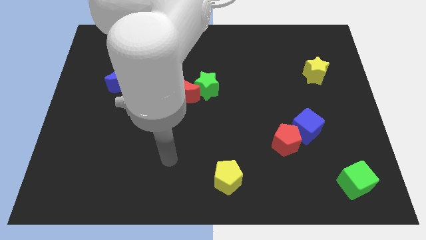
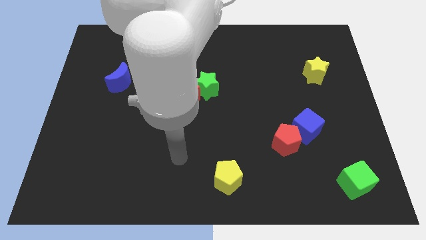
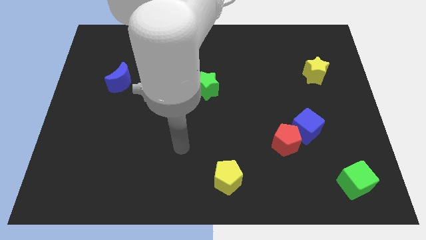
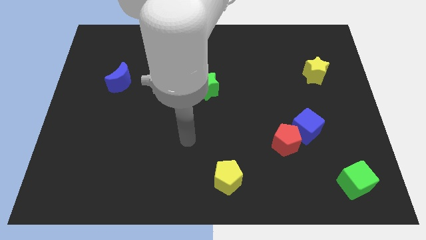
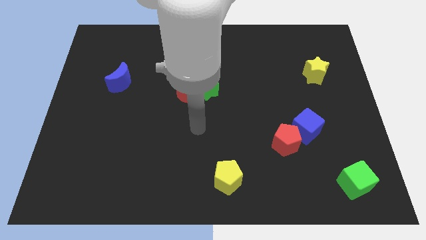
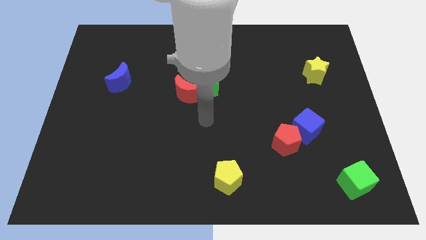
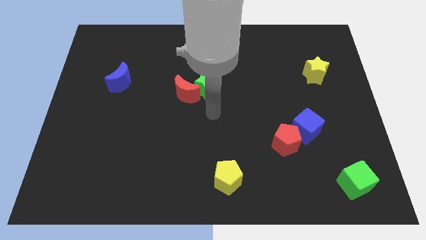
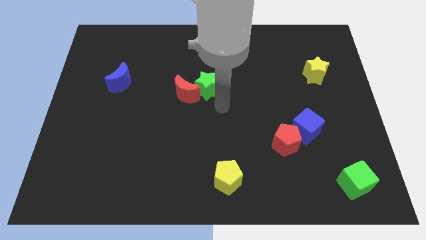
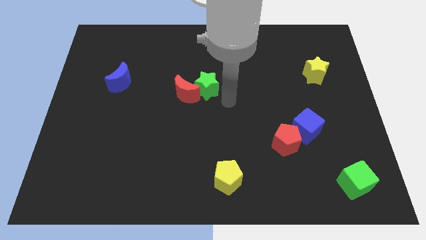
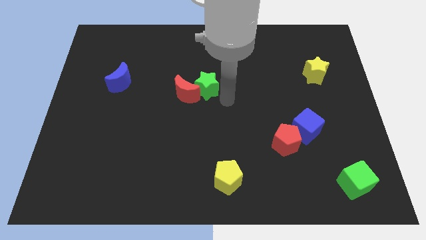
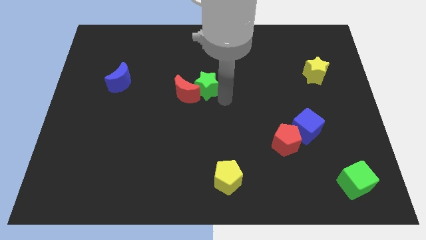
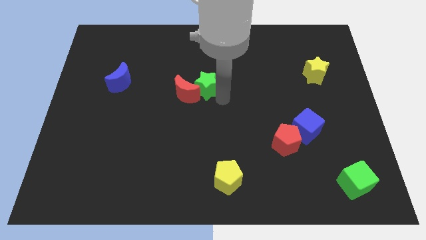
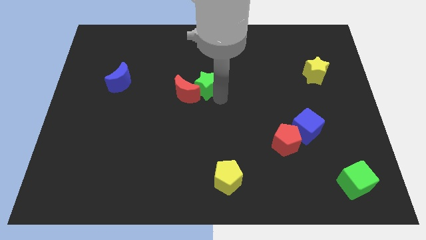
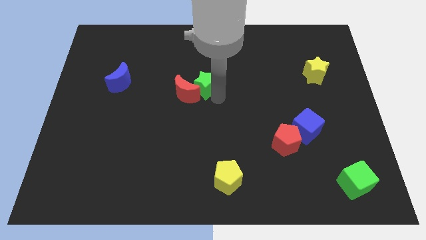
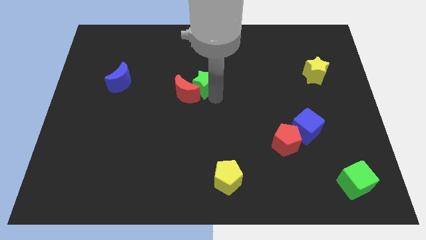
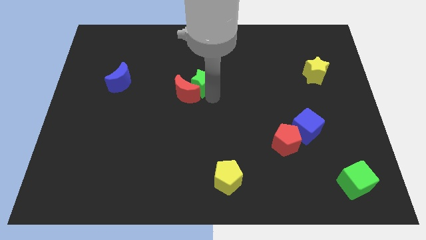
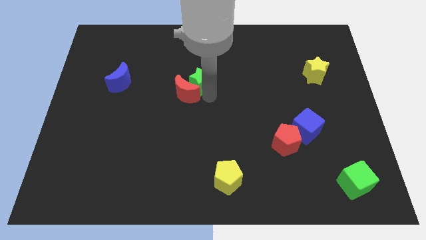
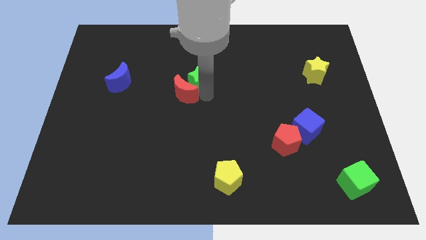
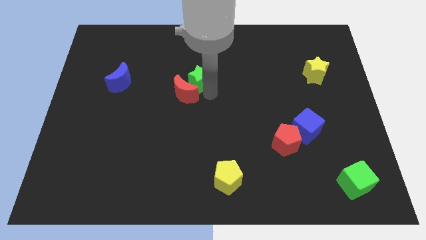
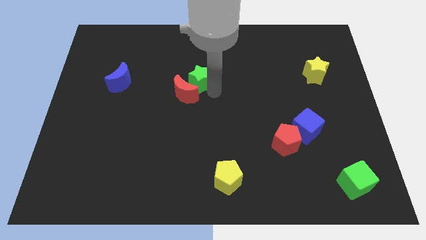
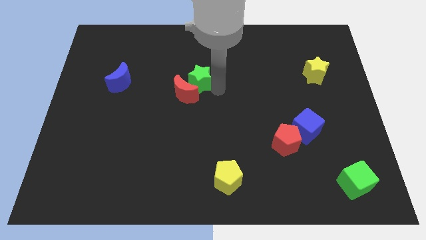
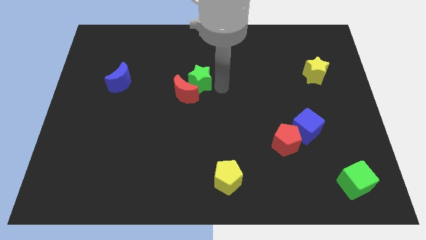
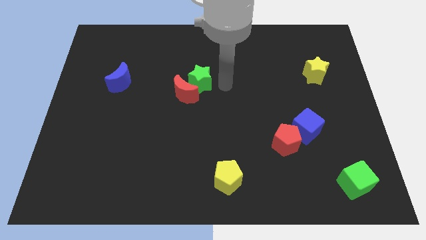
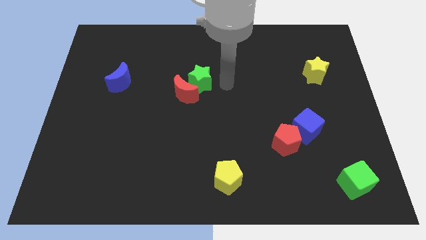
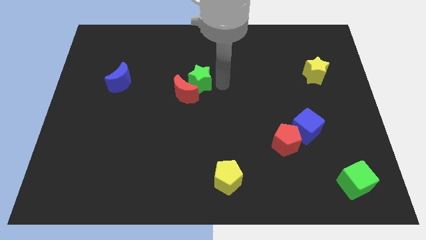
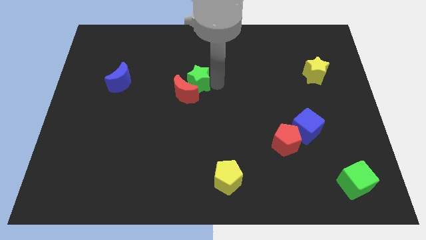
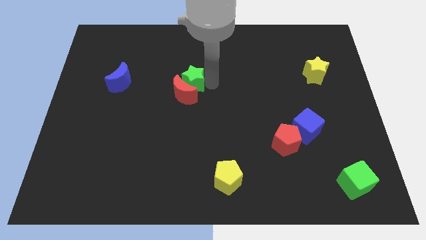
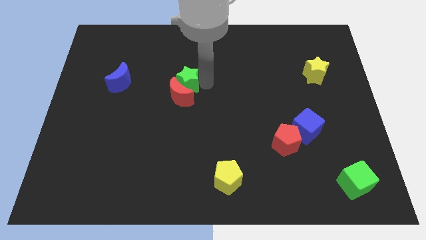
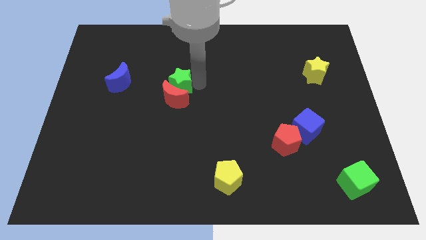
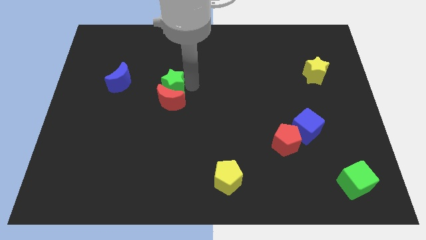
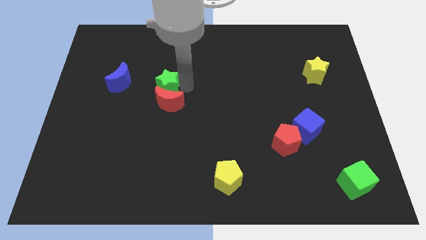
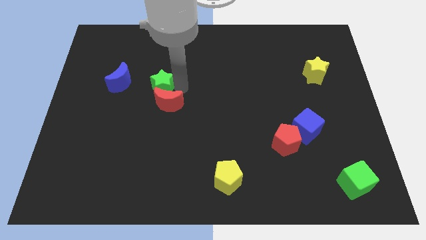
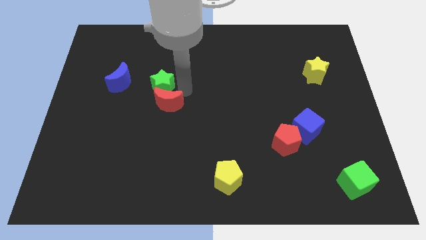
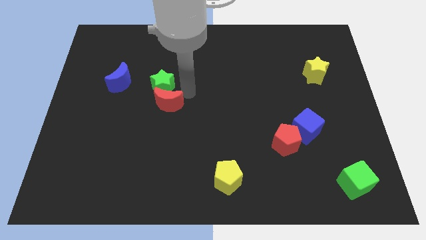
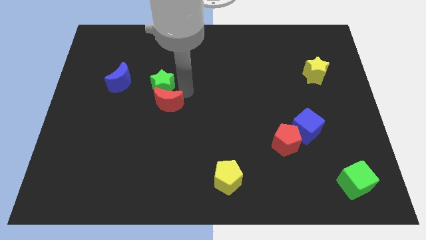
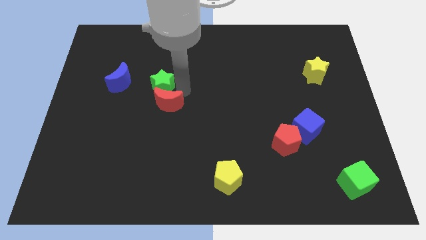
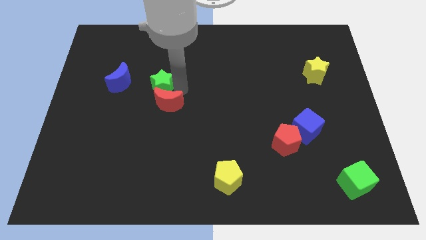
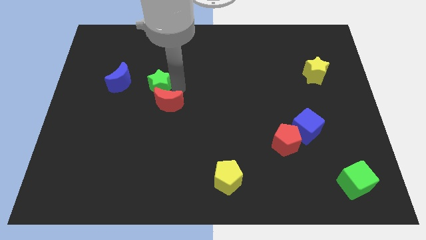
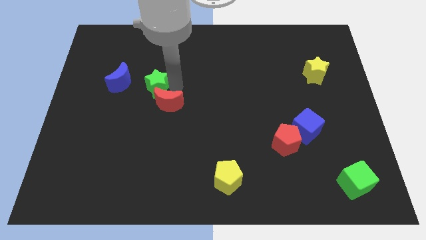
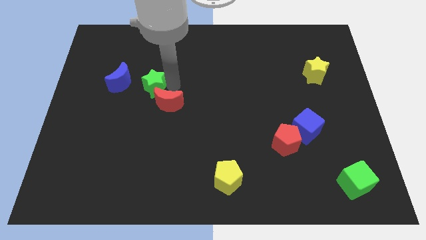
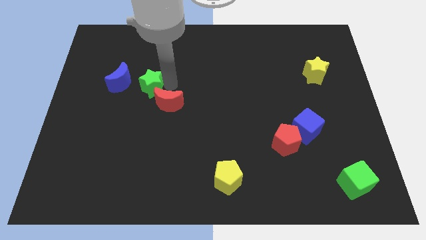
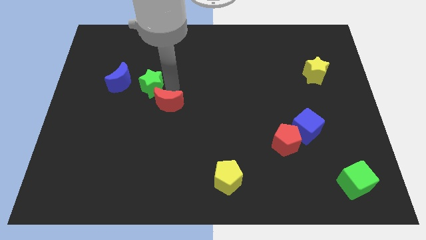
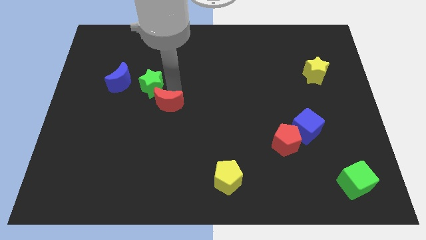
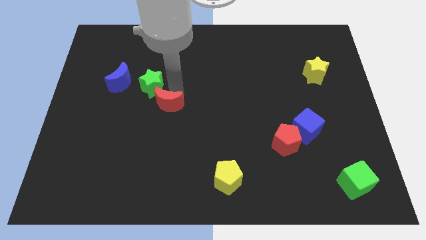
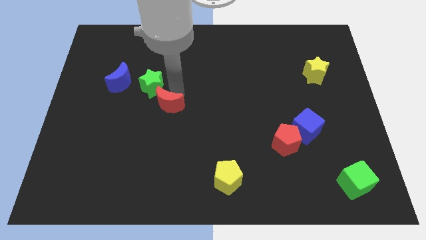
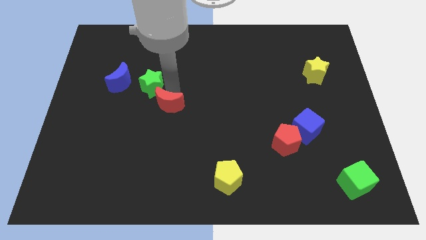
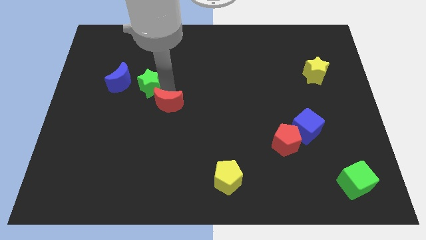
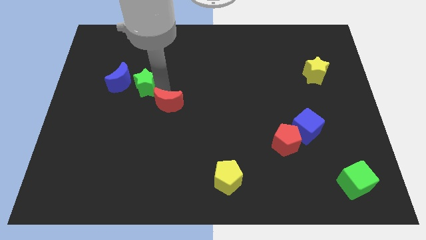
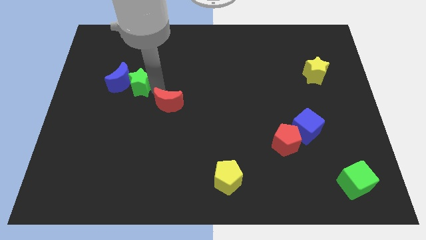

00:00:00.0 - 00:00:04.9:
push the green star to the blue moon

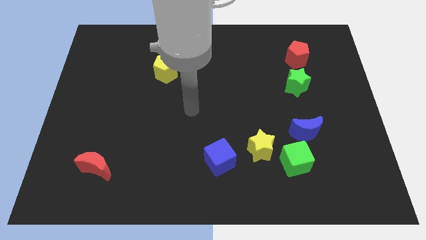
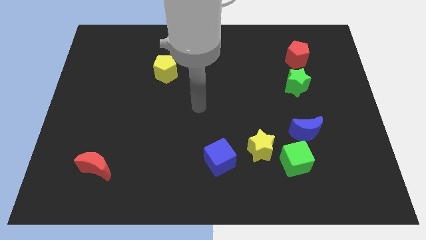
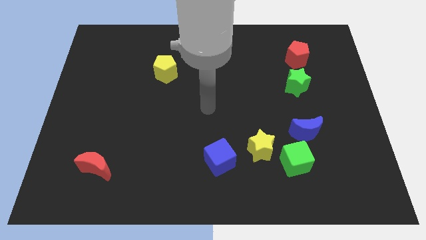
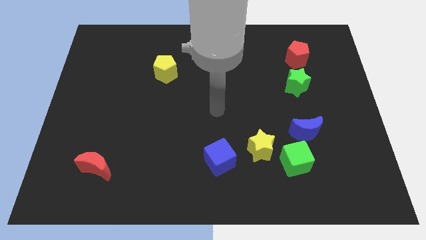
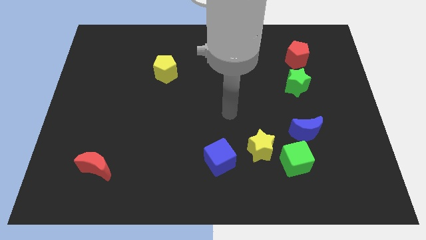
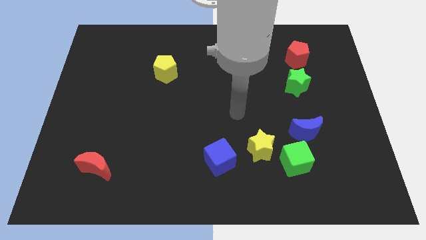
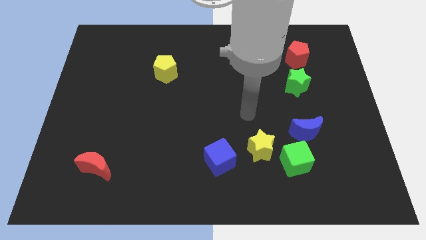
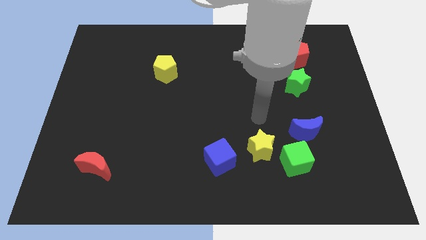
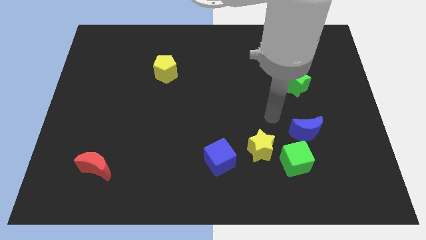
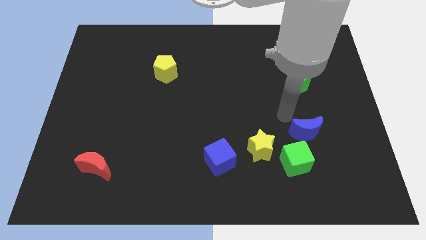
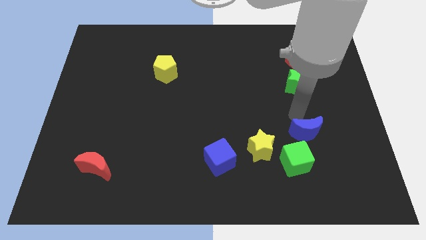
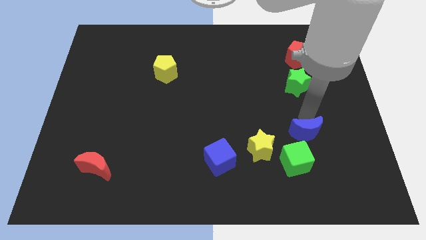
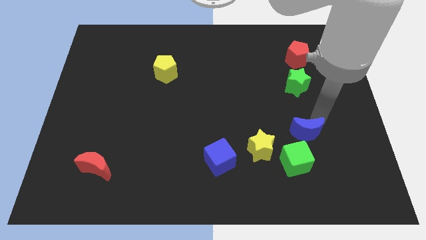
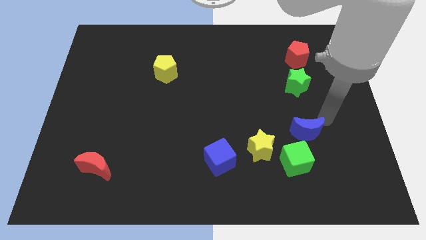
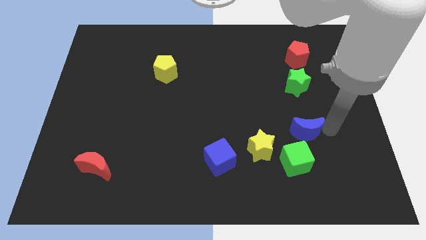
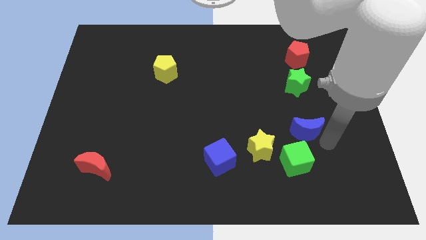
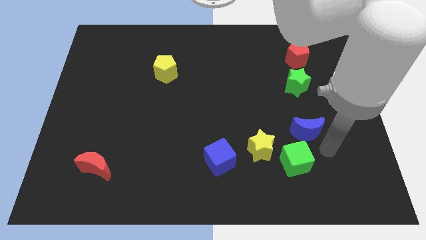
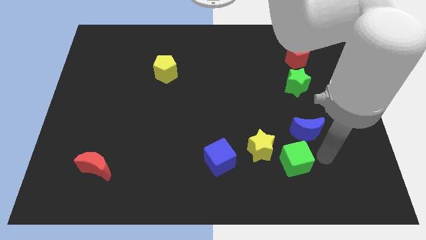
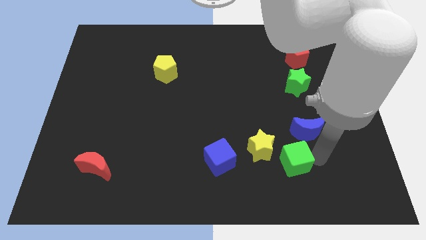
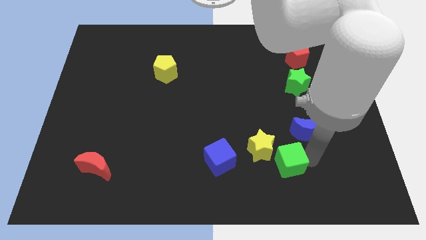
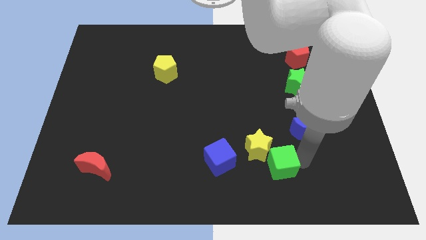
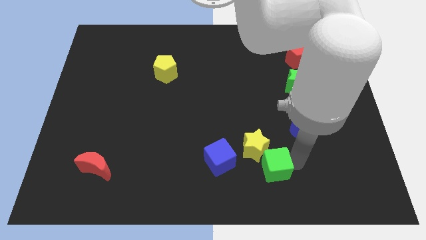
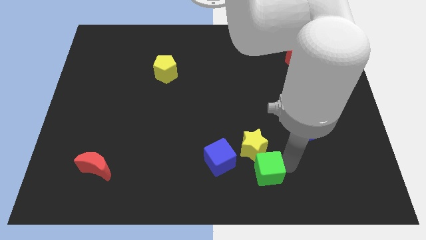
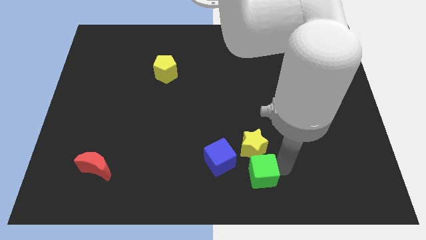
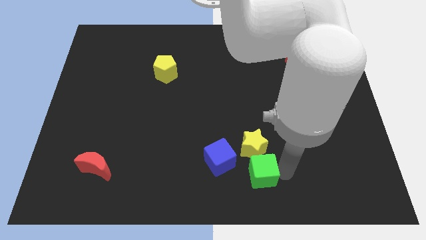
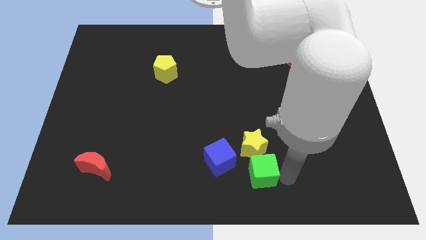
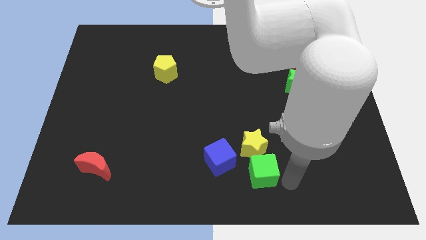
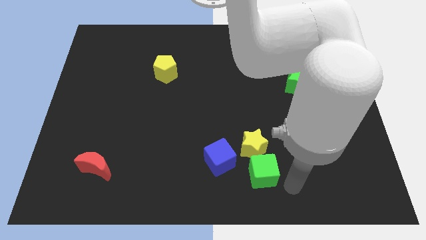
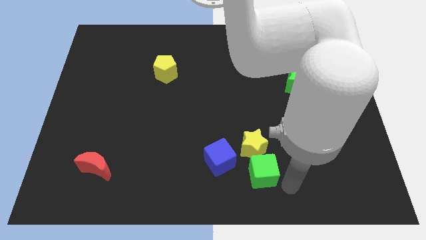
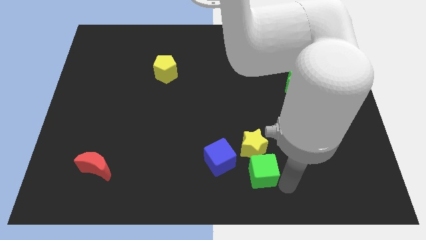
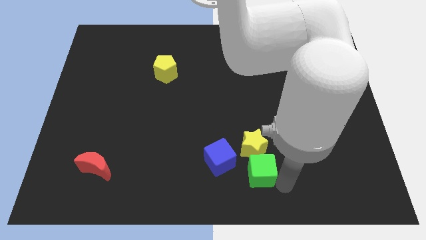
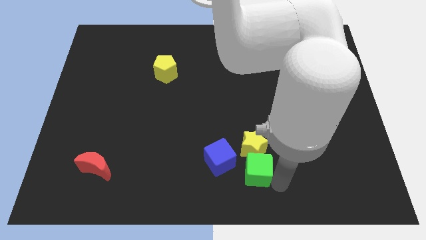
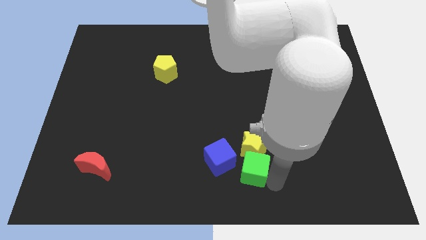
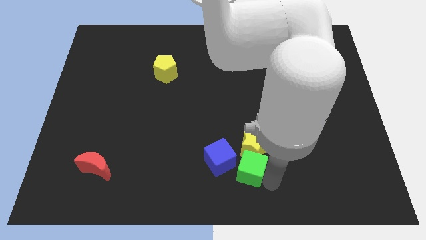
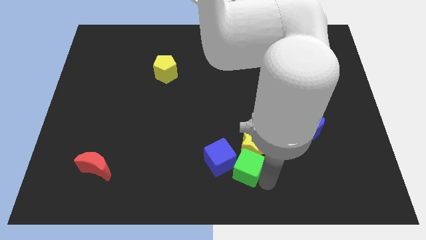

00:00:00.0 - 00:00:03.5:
put the green cube towards the blue cube
